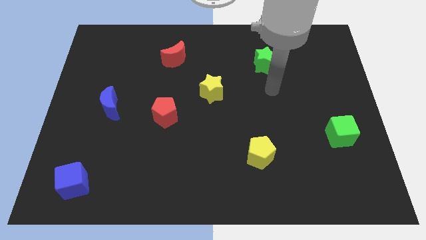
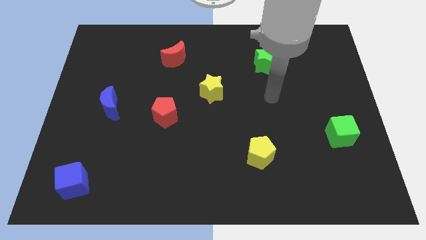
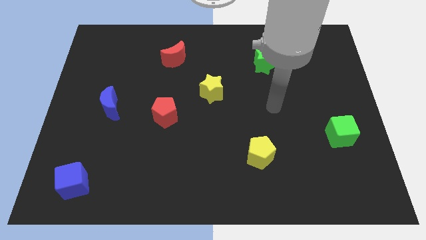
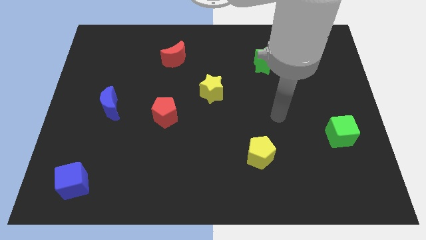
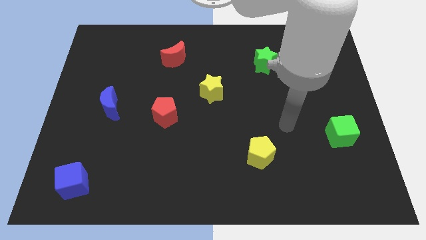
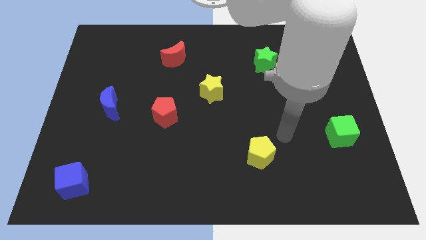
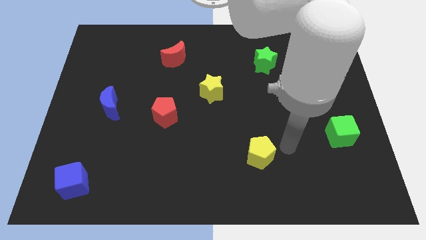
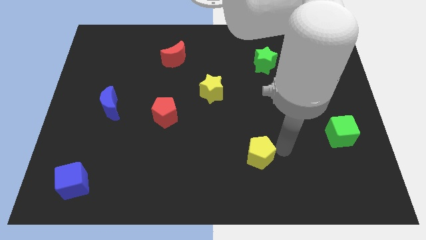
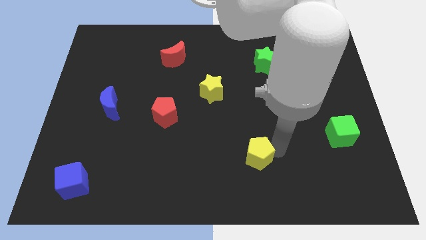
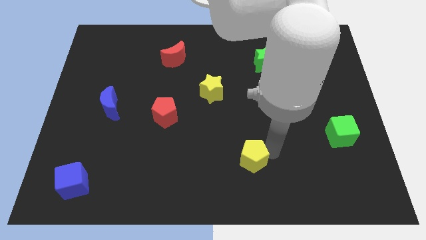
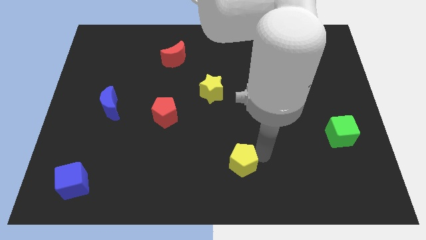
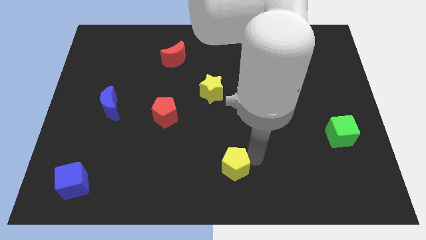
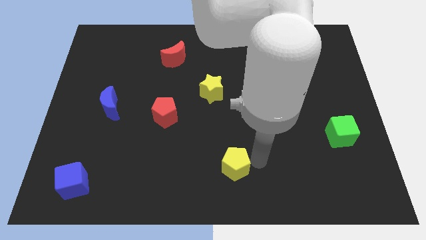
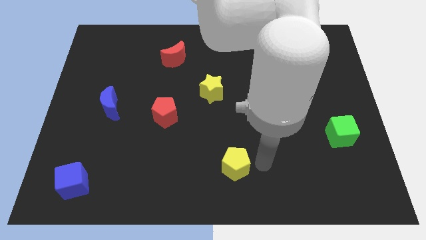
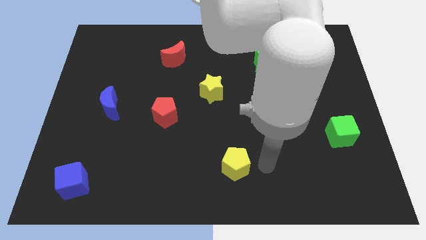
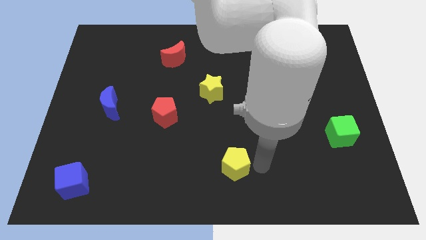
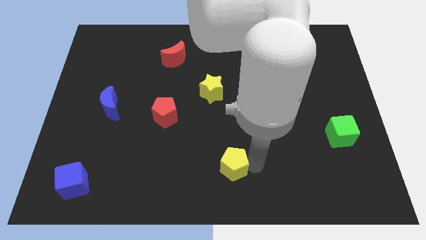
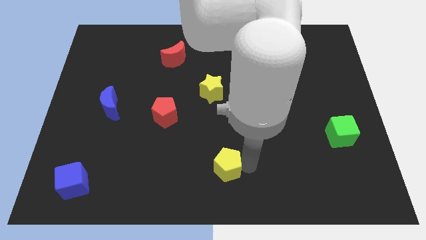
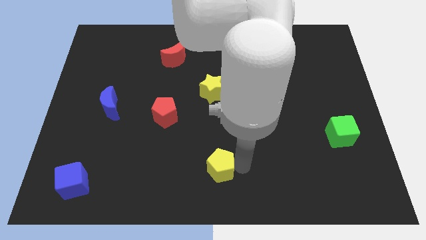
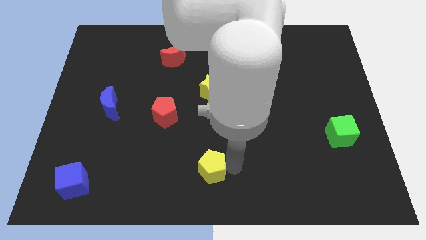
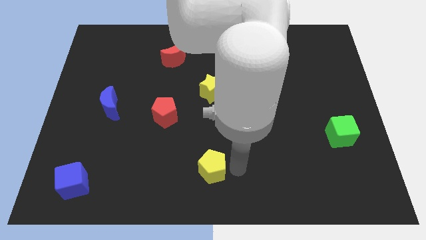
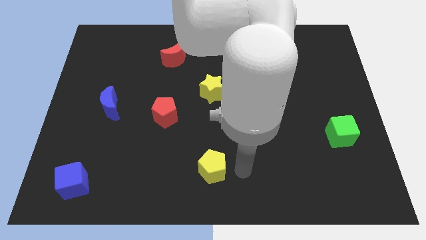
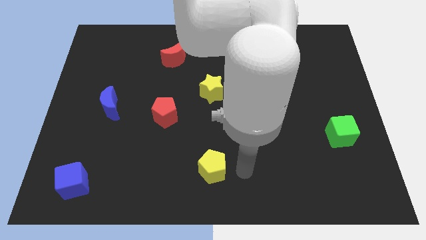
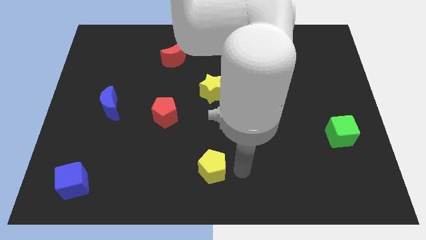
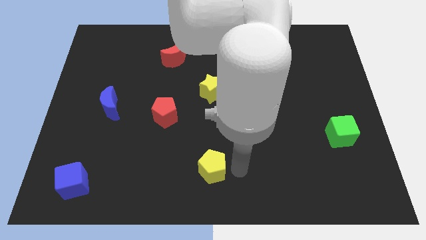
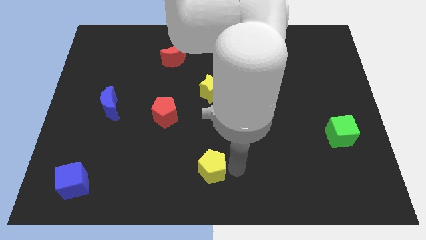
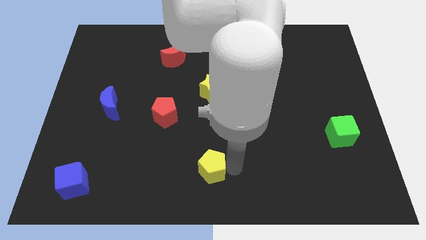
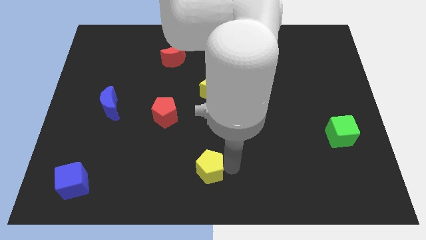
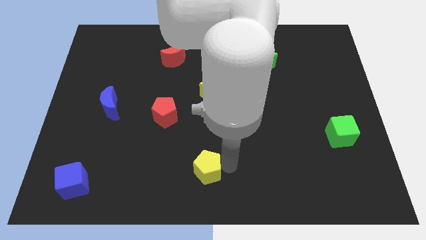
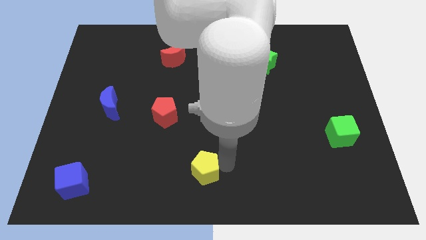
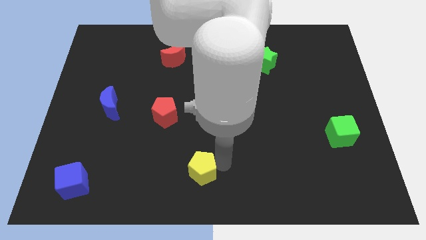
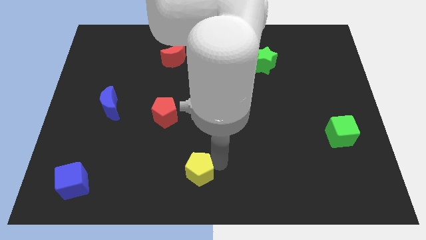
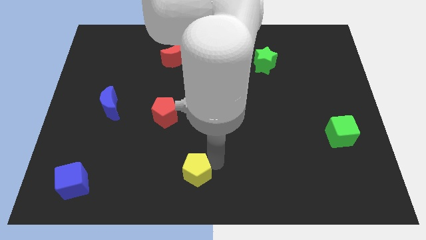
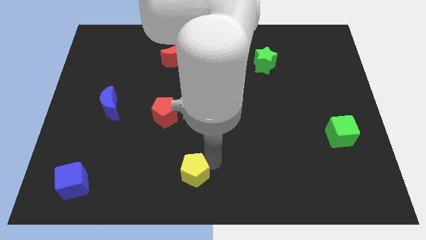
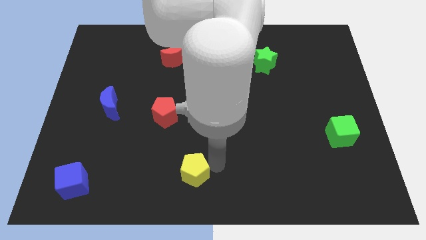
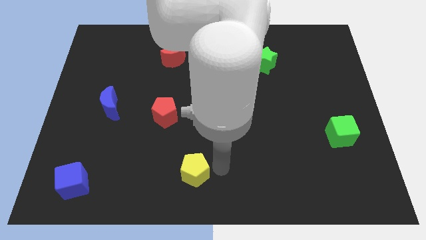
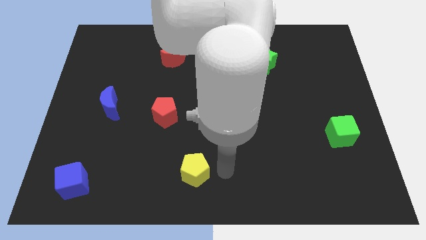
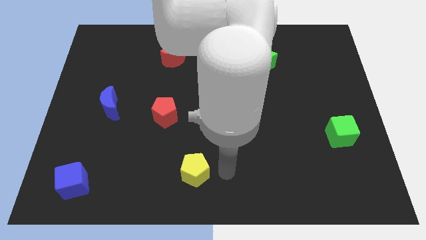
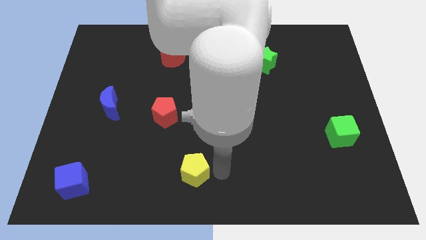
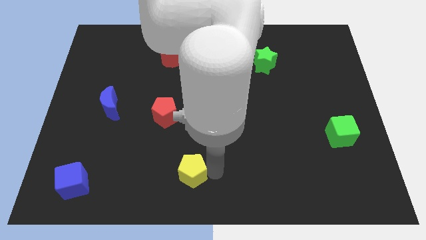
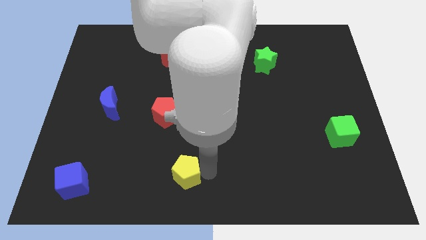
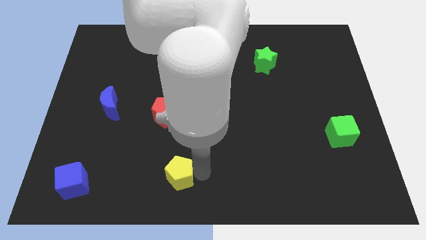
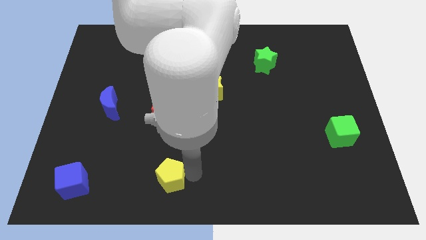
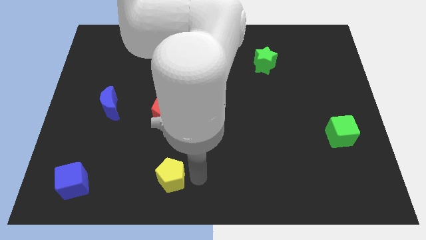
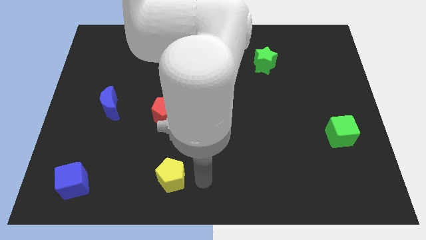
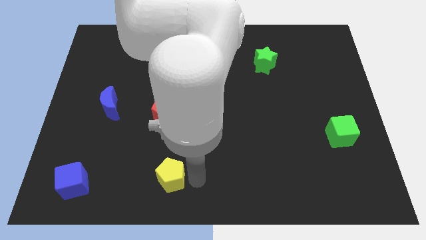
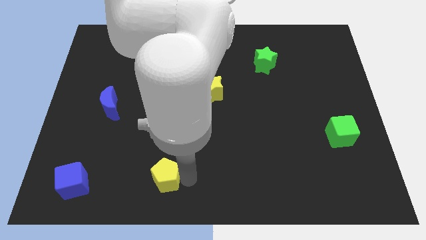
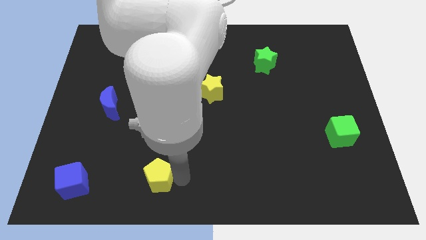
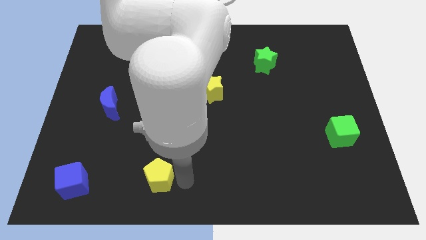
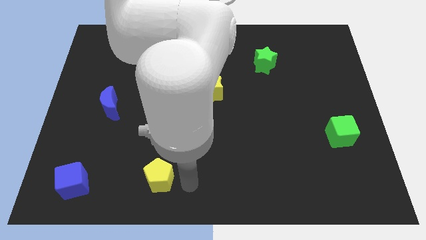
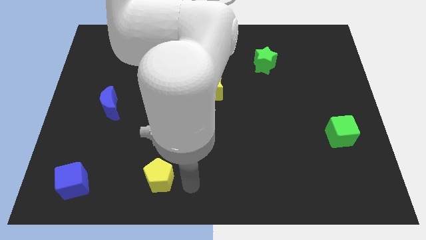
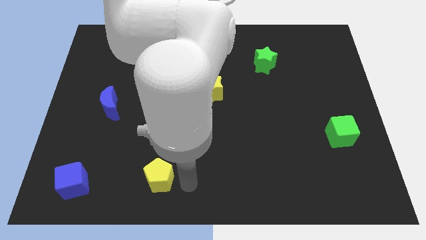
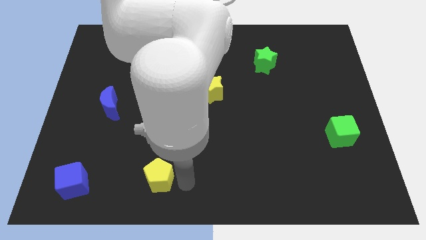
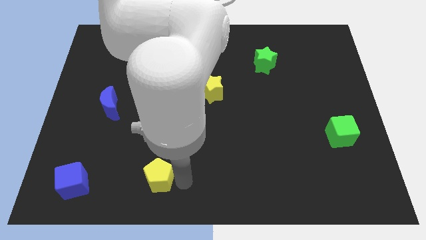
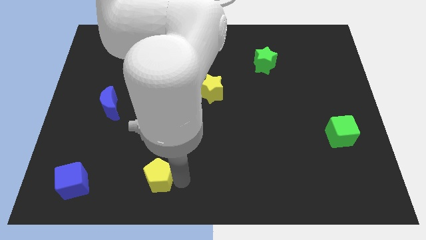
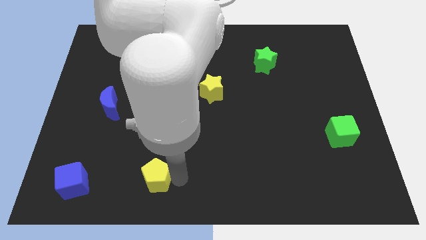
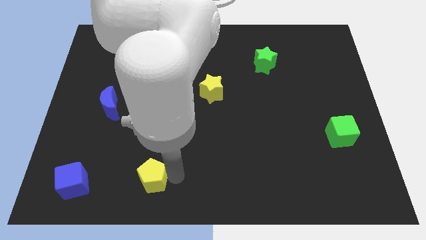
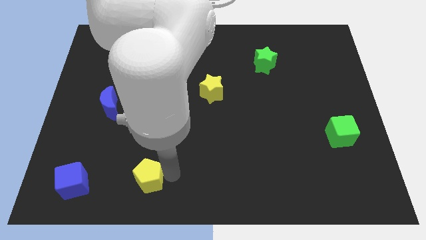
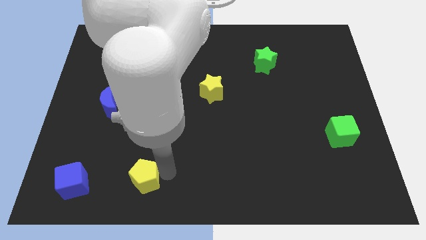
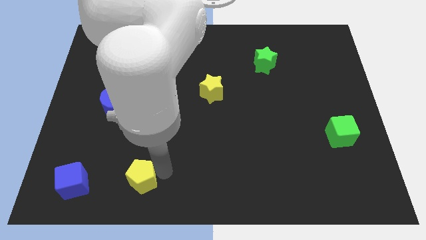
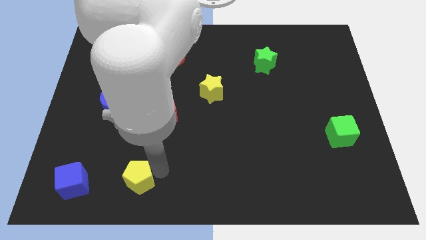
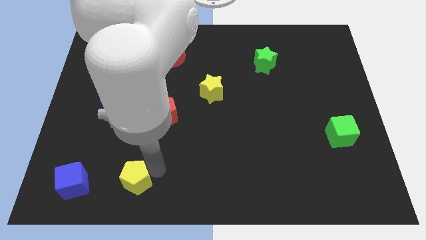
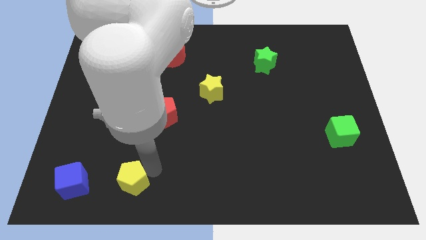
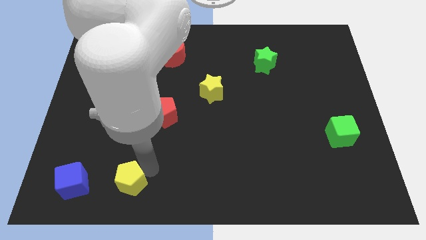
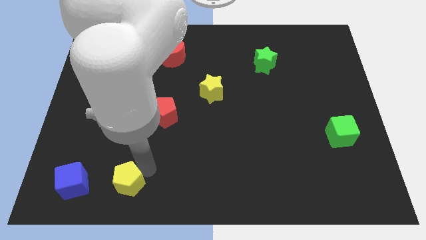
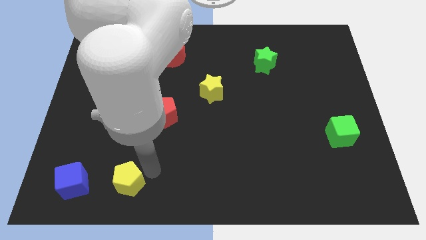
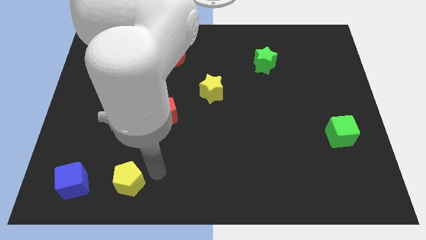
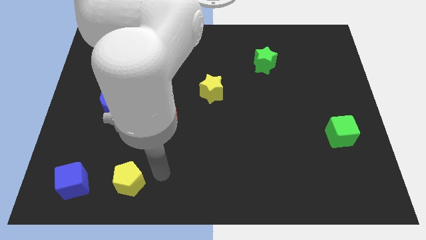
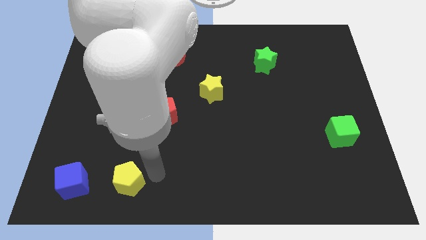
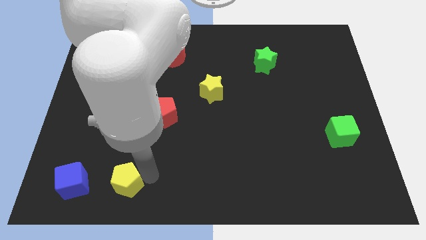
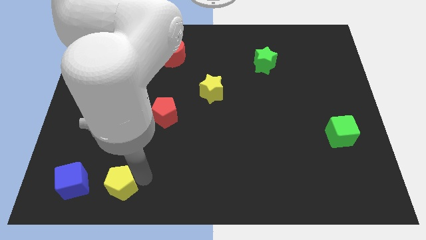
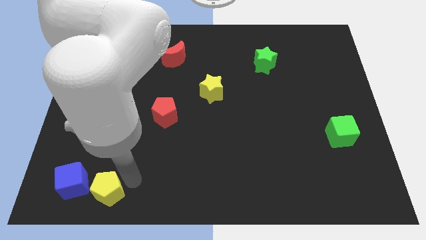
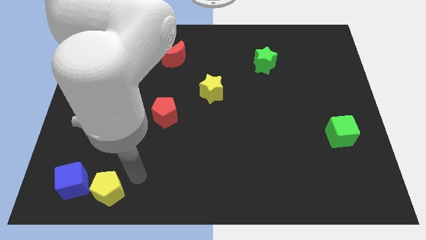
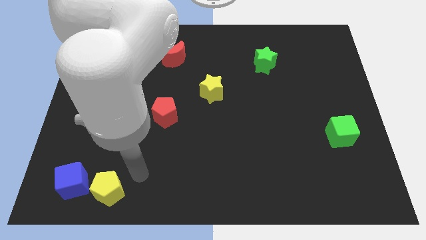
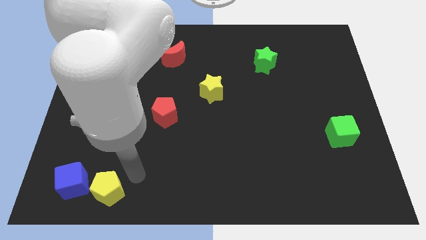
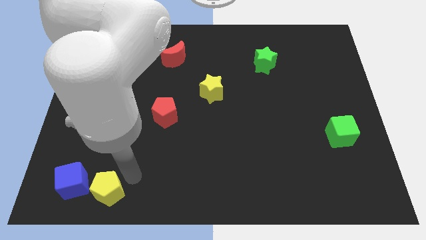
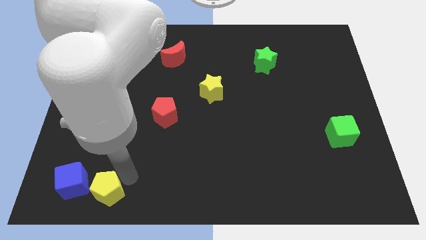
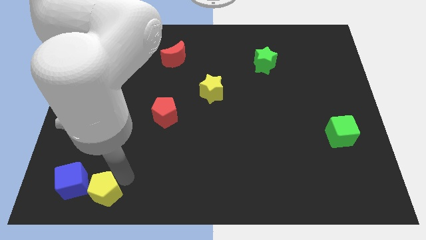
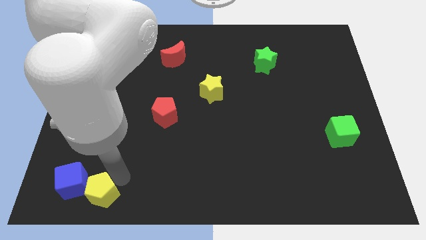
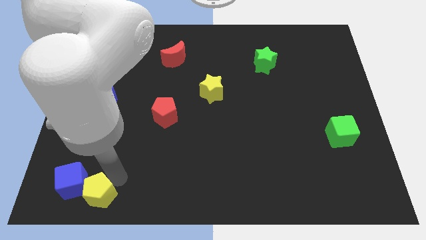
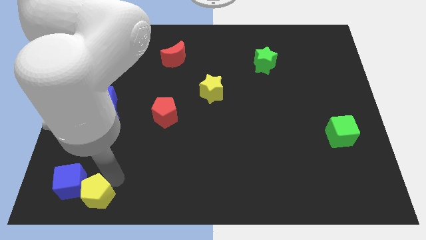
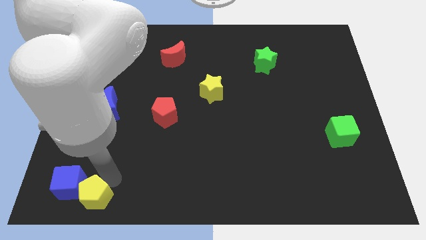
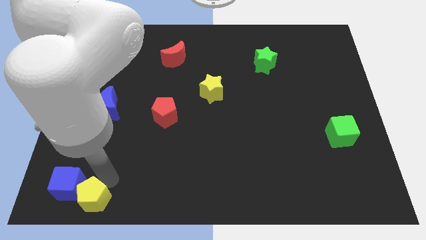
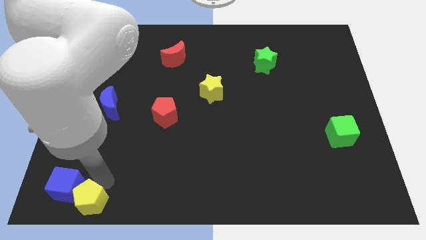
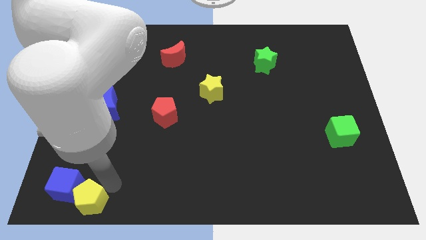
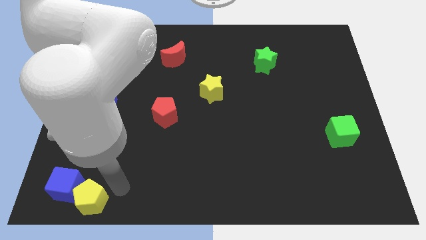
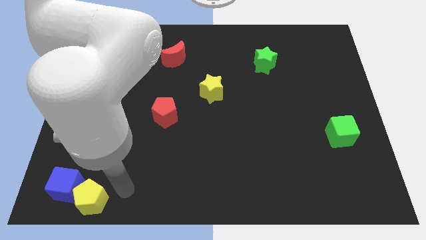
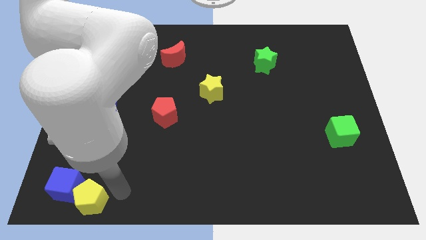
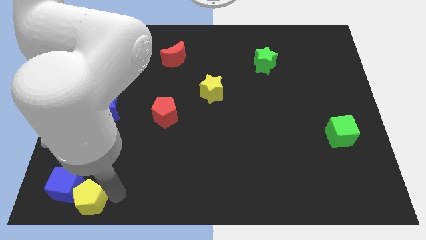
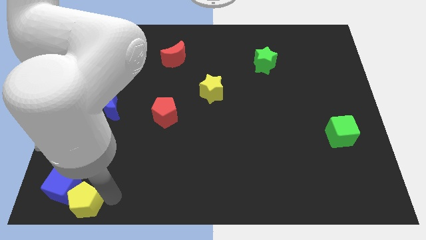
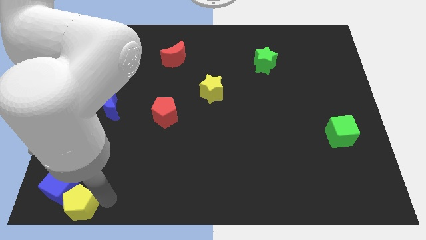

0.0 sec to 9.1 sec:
slide the yellow pentagon to the bottom left of the board
